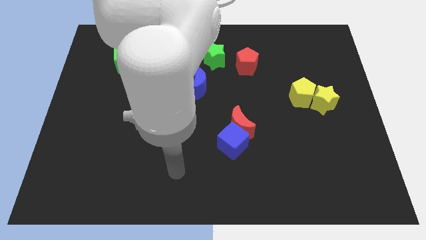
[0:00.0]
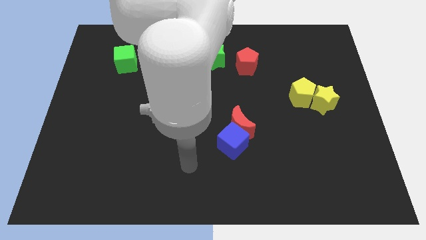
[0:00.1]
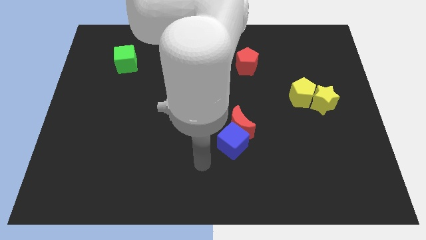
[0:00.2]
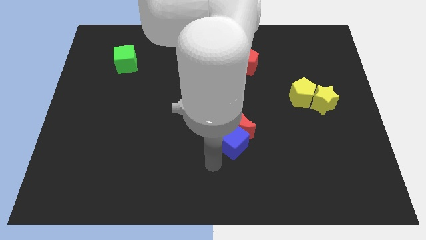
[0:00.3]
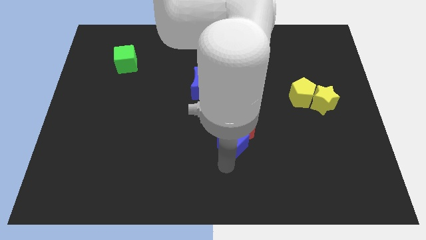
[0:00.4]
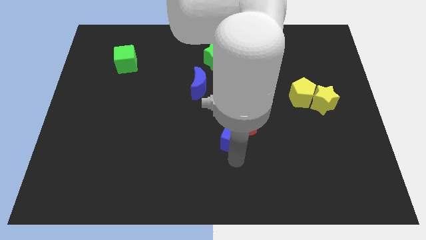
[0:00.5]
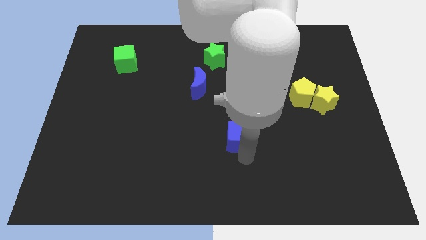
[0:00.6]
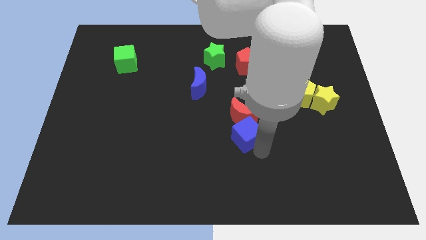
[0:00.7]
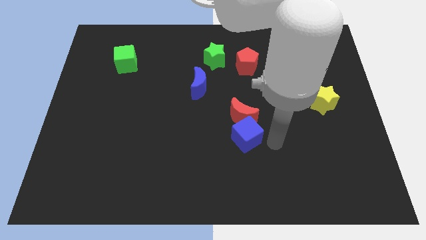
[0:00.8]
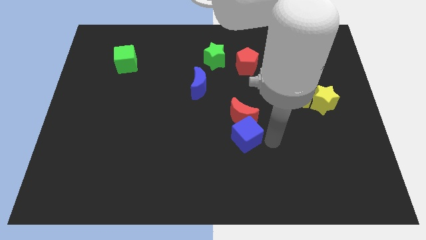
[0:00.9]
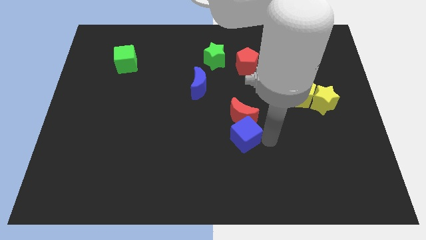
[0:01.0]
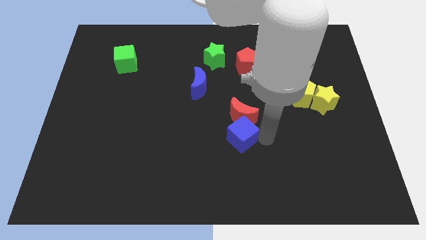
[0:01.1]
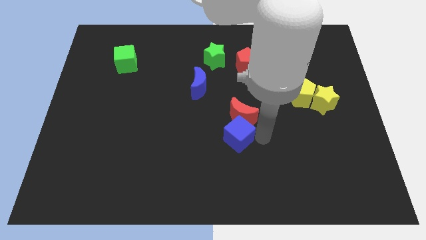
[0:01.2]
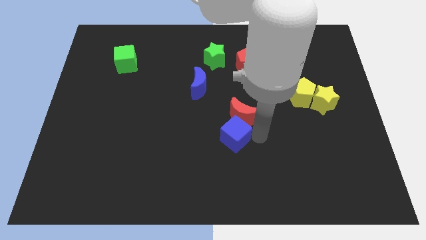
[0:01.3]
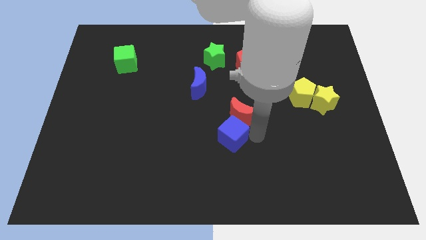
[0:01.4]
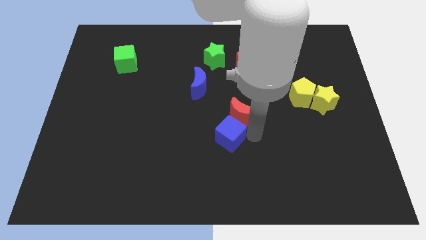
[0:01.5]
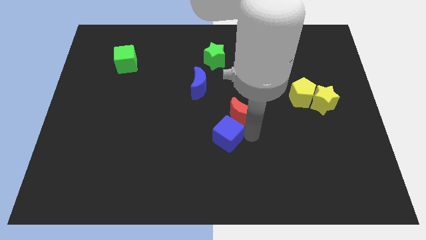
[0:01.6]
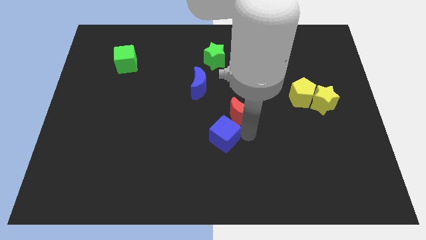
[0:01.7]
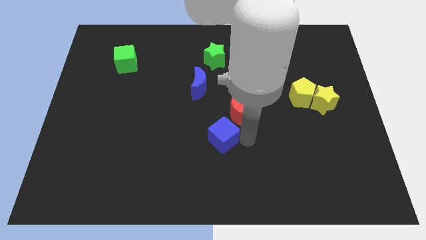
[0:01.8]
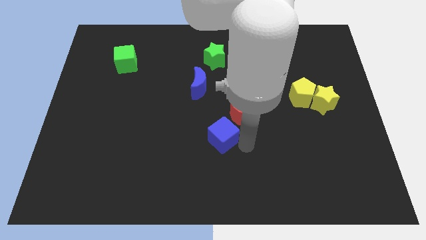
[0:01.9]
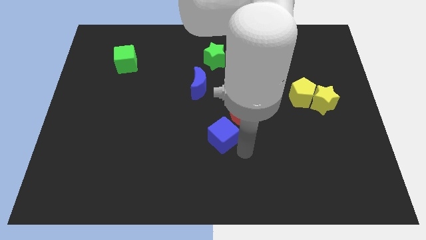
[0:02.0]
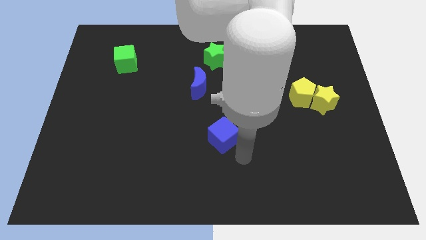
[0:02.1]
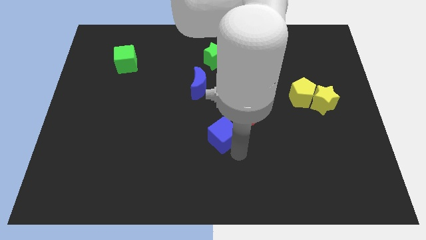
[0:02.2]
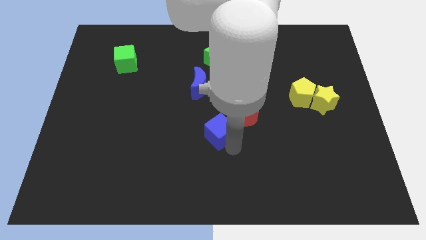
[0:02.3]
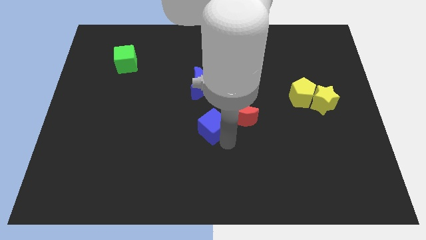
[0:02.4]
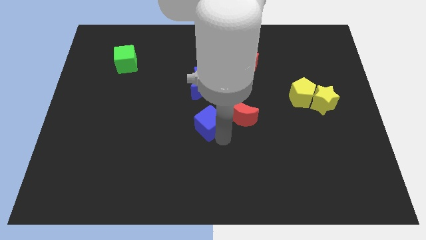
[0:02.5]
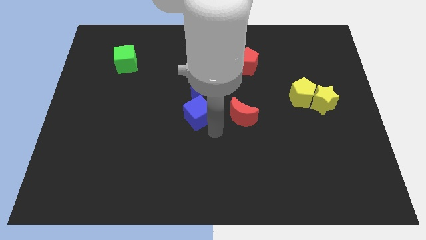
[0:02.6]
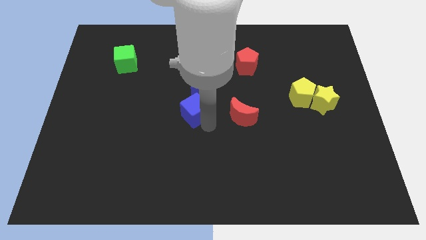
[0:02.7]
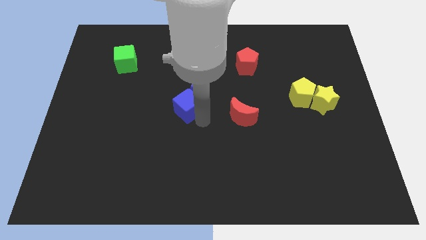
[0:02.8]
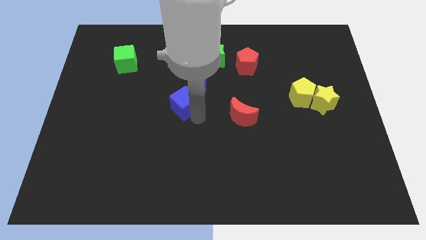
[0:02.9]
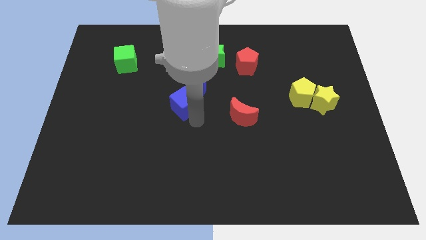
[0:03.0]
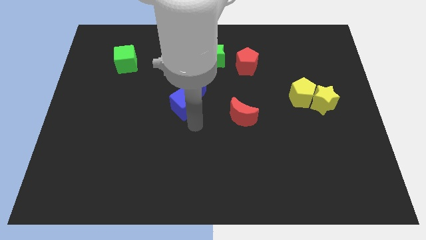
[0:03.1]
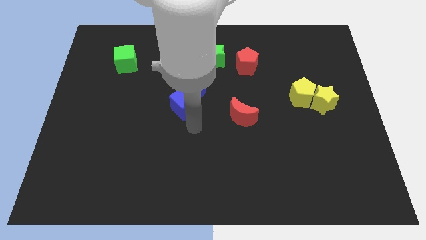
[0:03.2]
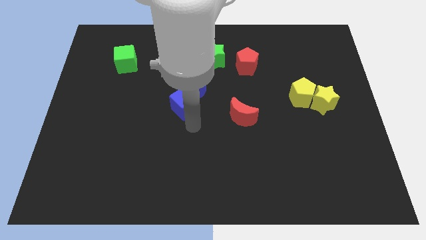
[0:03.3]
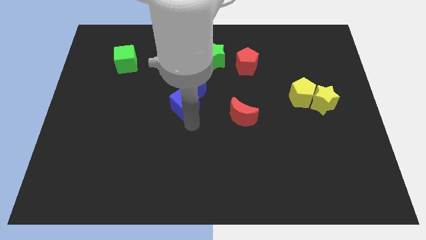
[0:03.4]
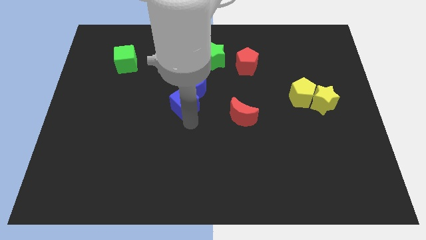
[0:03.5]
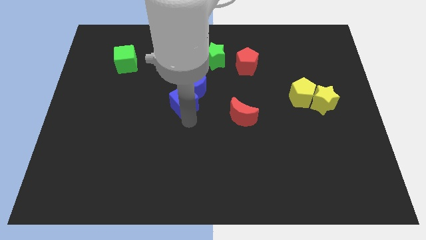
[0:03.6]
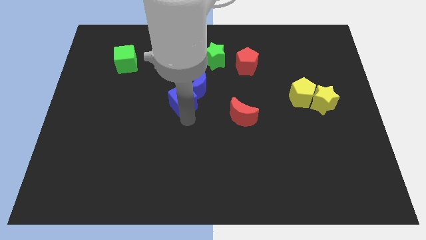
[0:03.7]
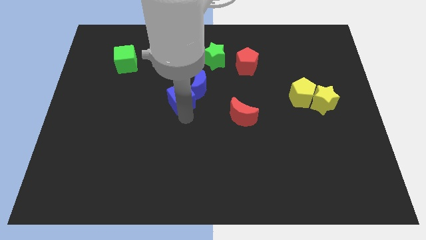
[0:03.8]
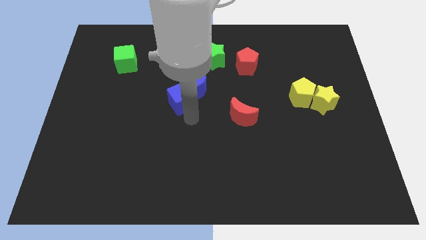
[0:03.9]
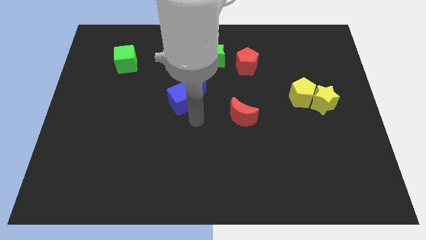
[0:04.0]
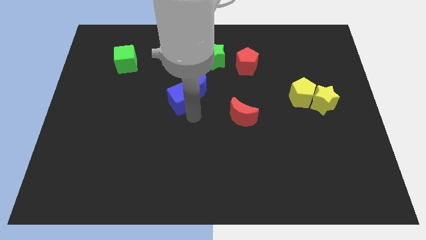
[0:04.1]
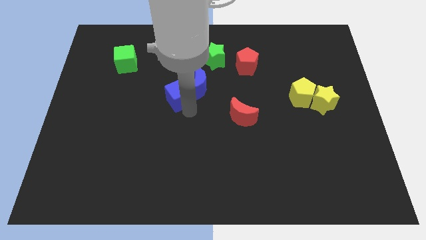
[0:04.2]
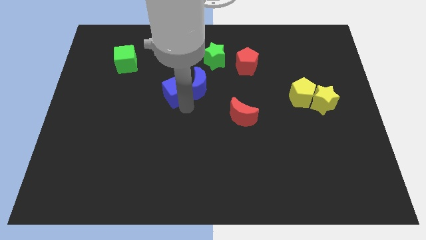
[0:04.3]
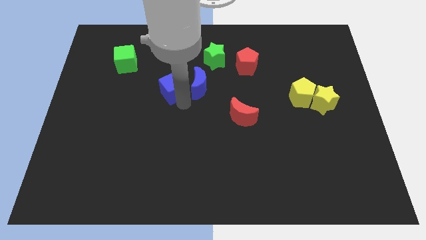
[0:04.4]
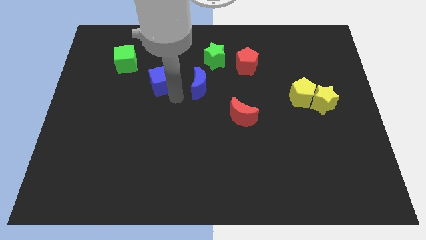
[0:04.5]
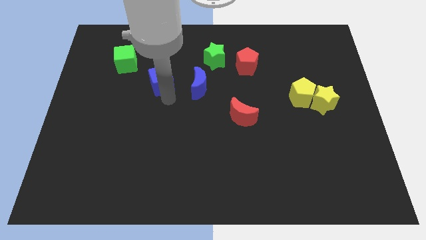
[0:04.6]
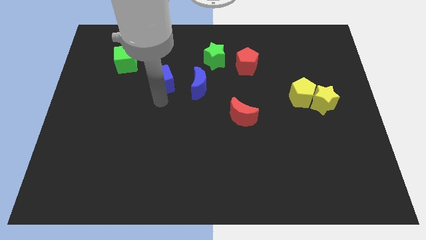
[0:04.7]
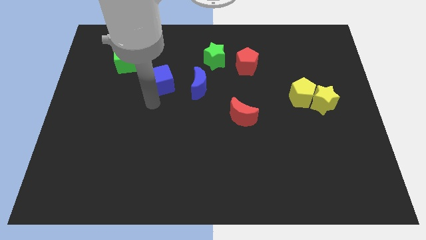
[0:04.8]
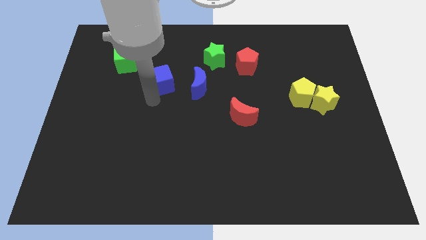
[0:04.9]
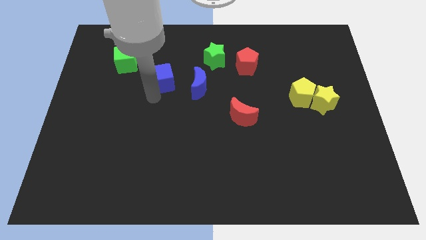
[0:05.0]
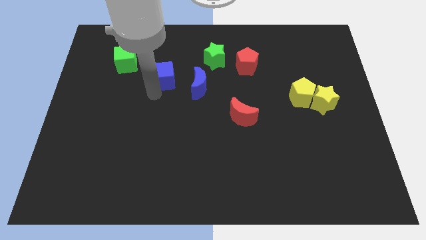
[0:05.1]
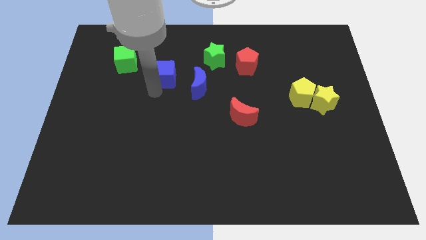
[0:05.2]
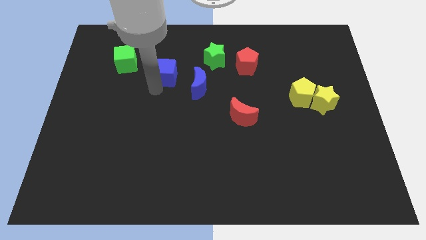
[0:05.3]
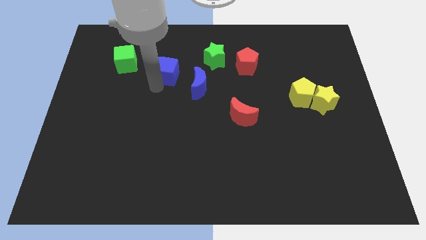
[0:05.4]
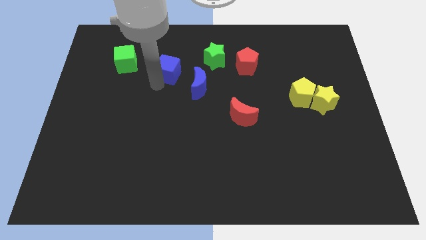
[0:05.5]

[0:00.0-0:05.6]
move the blue cube to the left side of the green star

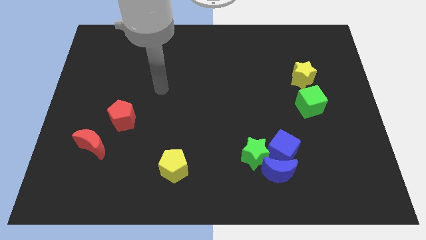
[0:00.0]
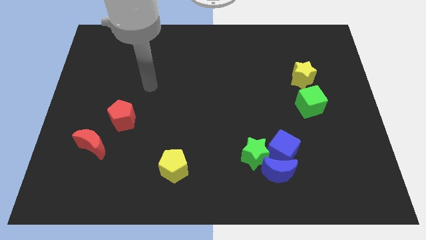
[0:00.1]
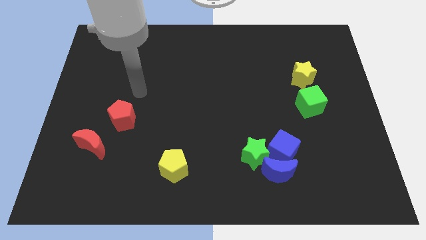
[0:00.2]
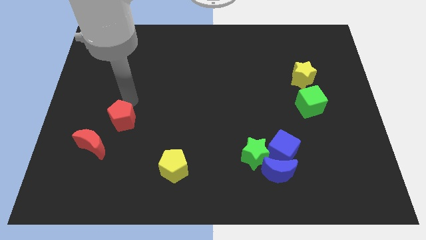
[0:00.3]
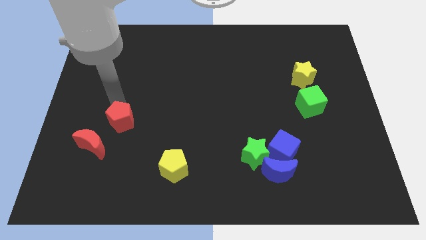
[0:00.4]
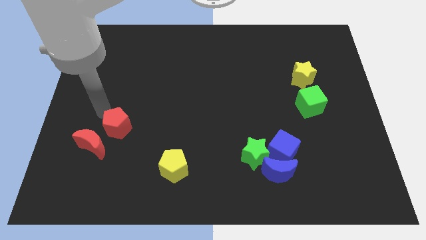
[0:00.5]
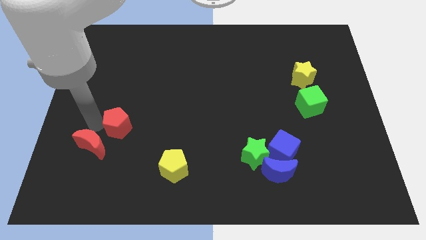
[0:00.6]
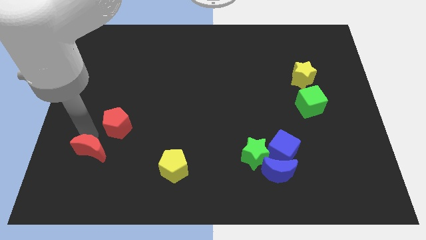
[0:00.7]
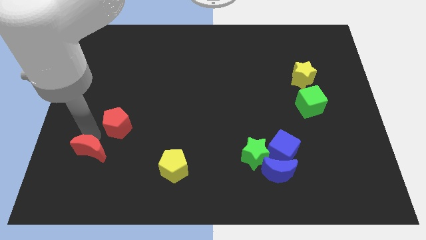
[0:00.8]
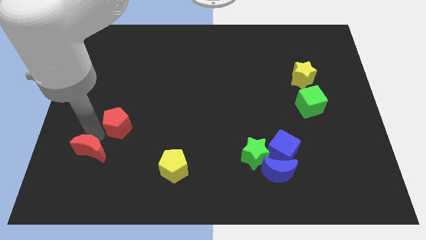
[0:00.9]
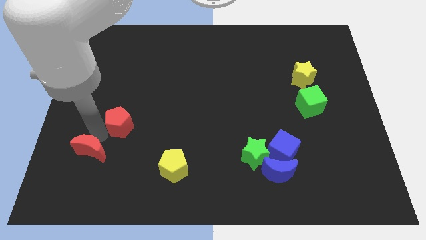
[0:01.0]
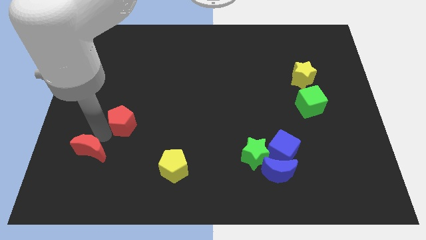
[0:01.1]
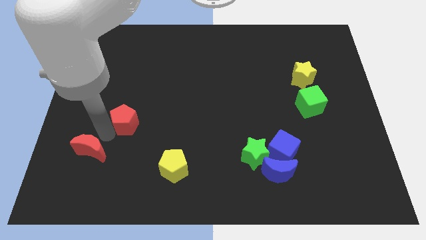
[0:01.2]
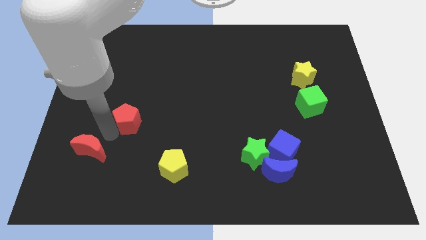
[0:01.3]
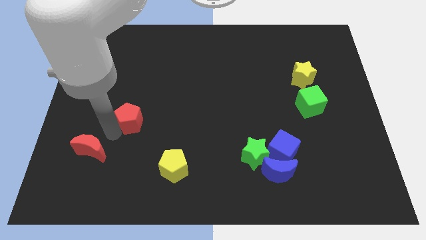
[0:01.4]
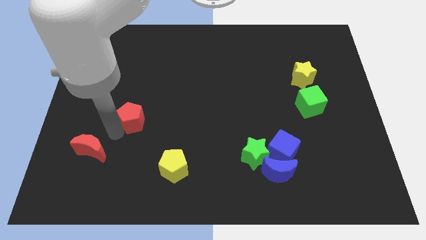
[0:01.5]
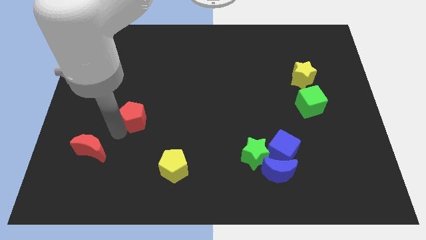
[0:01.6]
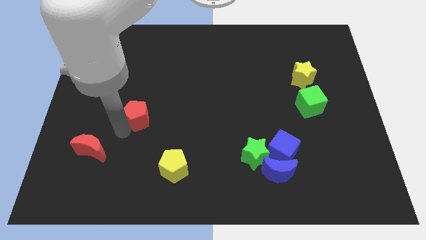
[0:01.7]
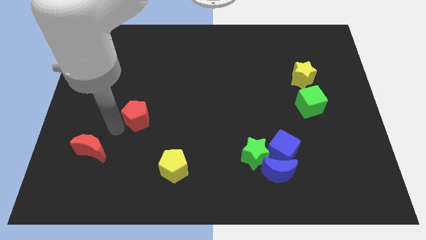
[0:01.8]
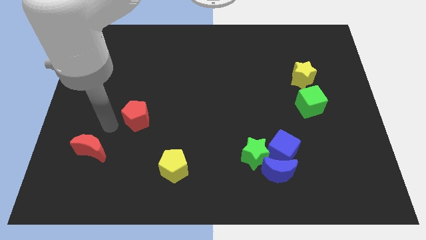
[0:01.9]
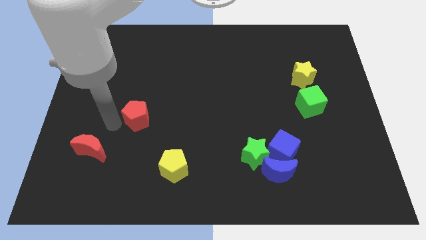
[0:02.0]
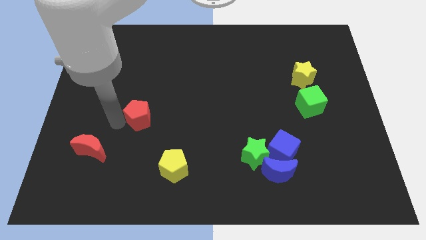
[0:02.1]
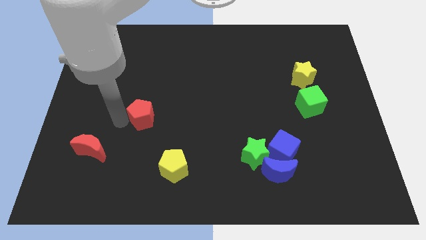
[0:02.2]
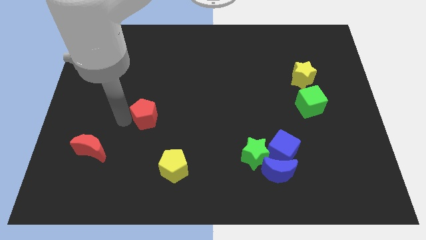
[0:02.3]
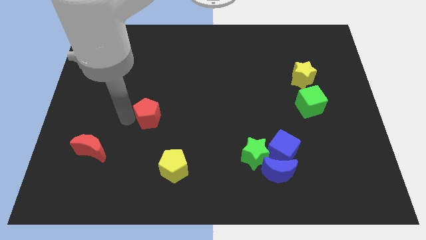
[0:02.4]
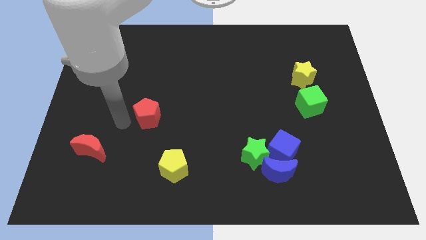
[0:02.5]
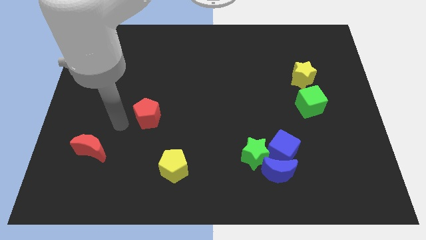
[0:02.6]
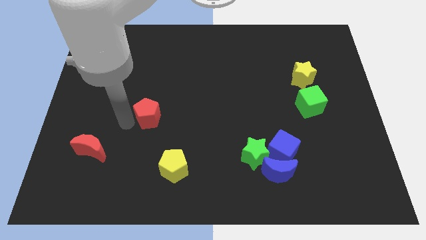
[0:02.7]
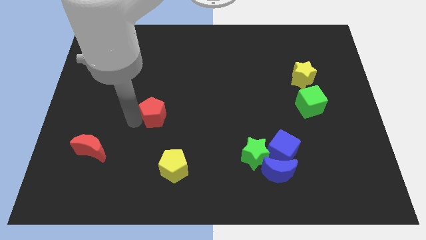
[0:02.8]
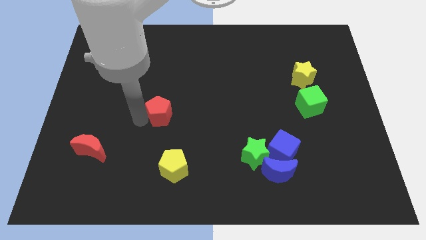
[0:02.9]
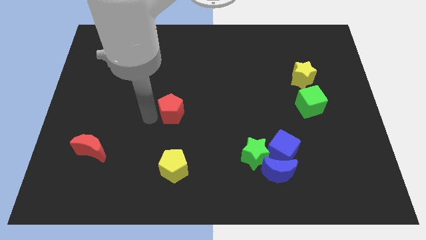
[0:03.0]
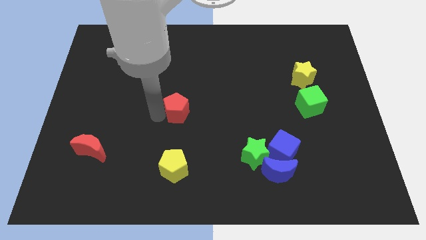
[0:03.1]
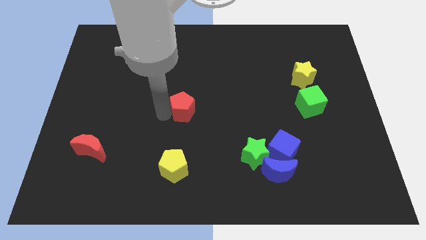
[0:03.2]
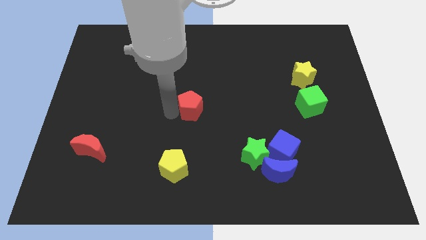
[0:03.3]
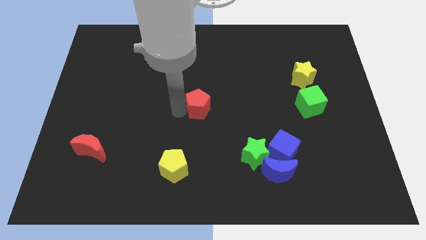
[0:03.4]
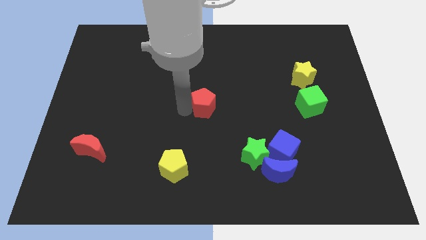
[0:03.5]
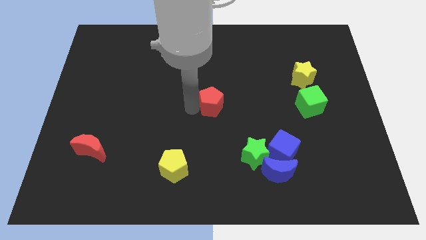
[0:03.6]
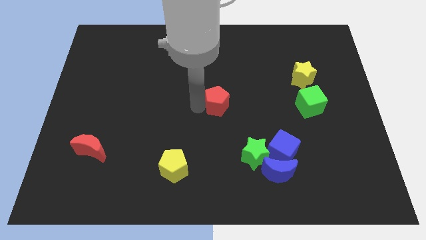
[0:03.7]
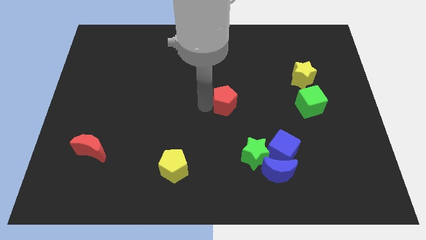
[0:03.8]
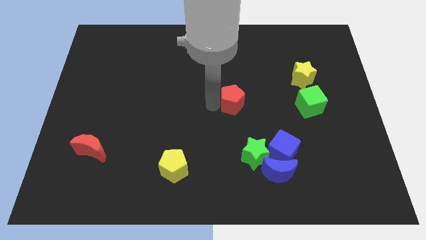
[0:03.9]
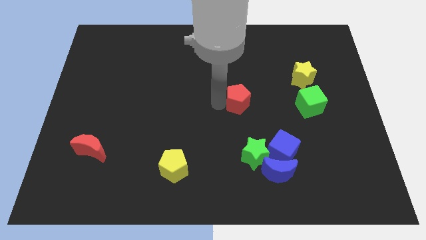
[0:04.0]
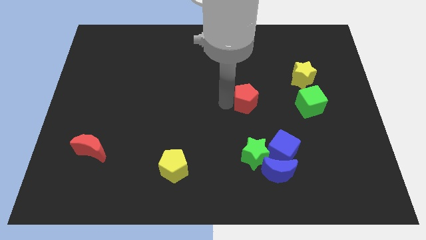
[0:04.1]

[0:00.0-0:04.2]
put the red pentagon to the left of the green cube
